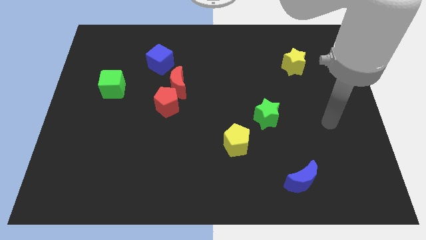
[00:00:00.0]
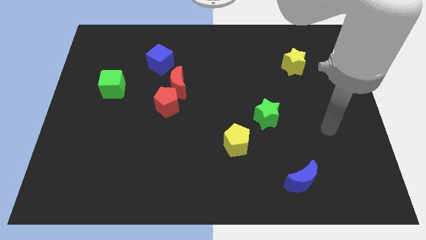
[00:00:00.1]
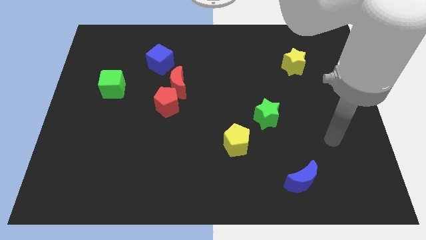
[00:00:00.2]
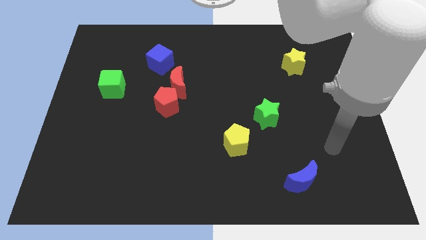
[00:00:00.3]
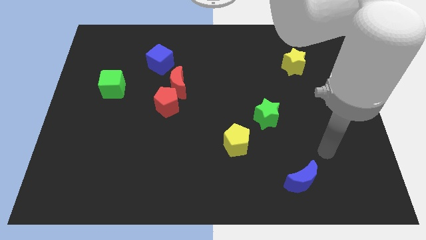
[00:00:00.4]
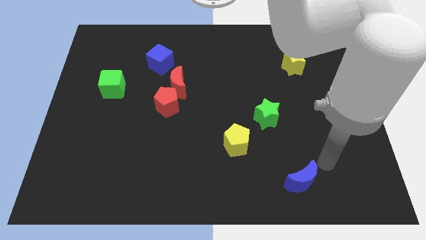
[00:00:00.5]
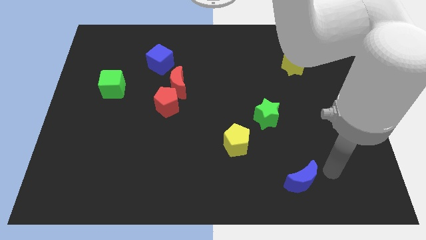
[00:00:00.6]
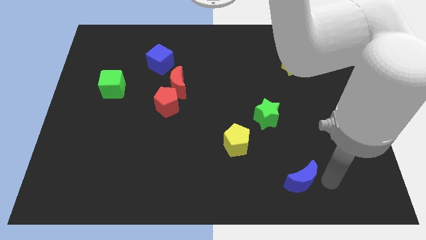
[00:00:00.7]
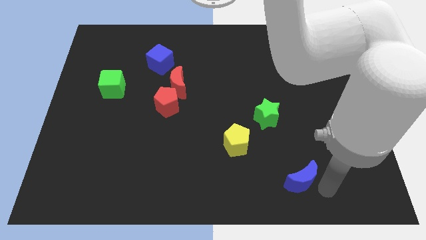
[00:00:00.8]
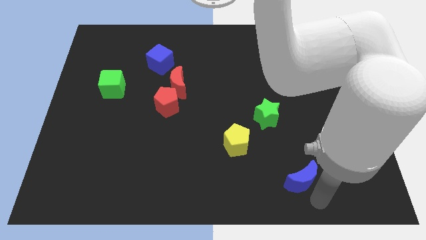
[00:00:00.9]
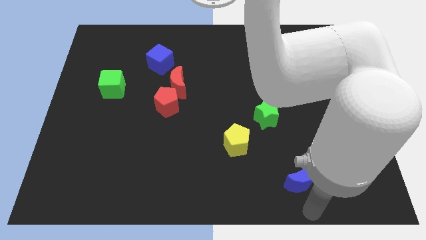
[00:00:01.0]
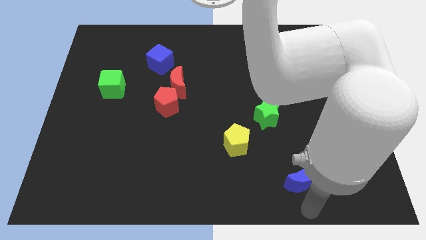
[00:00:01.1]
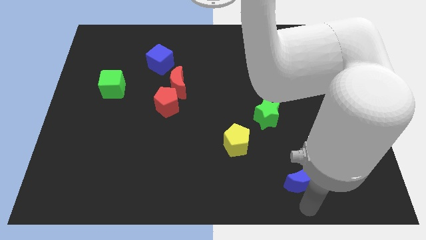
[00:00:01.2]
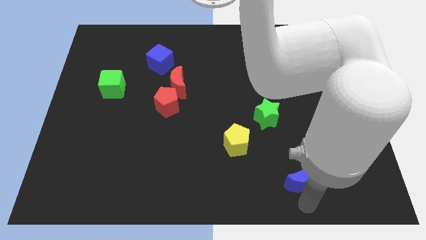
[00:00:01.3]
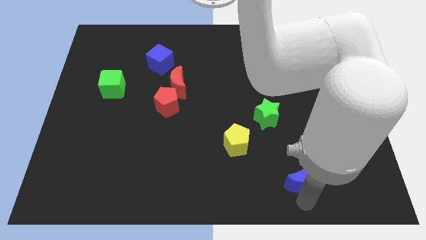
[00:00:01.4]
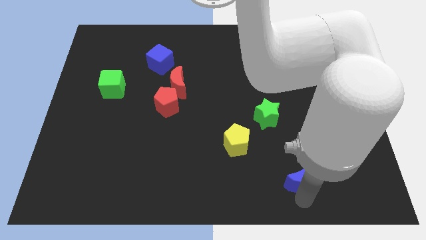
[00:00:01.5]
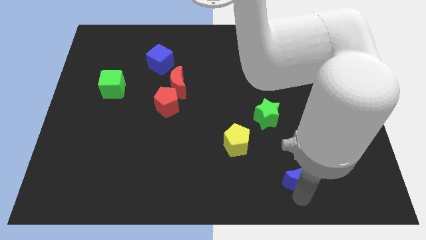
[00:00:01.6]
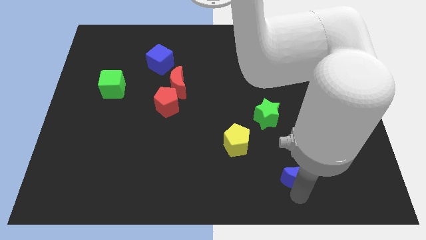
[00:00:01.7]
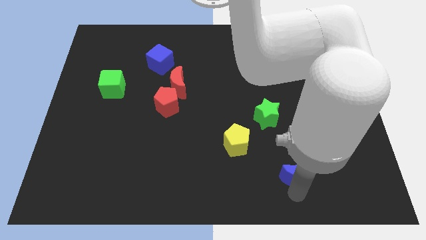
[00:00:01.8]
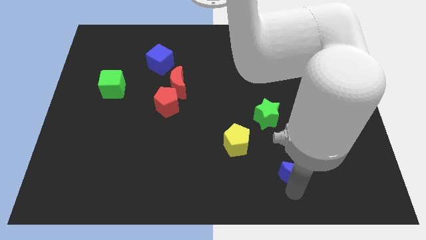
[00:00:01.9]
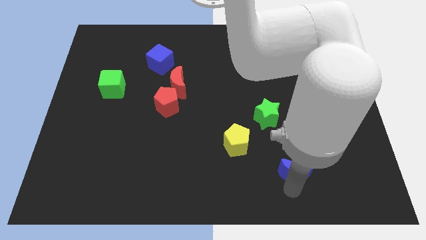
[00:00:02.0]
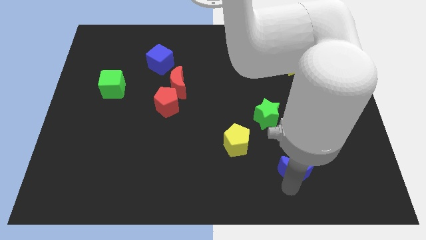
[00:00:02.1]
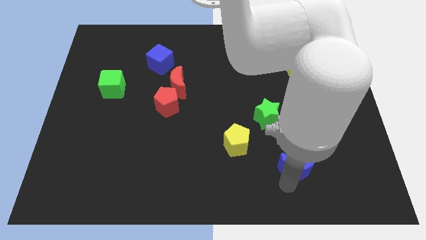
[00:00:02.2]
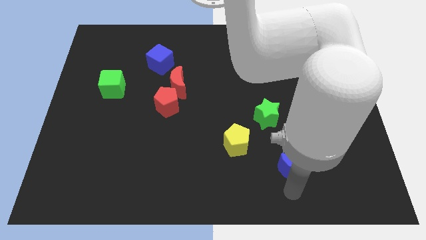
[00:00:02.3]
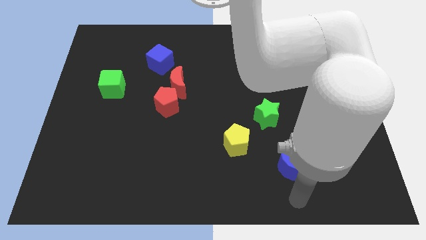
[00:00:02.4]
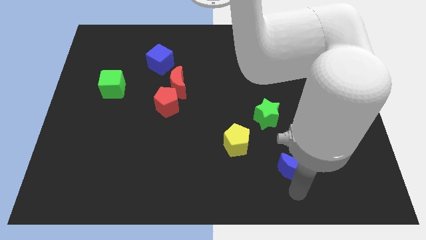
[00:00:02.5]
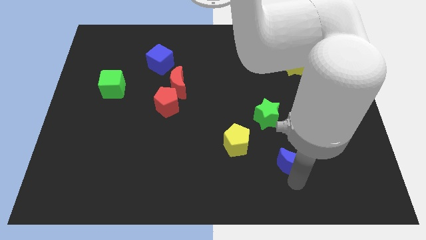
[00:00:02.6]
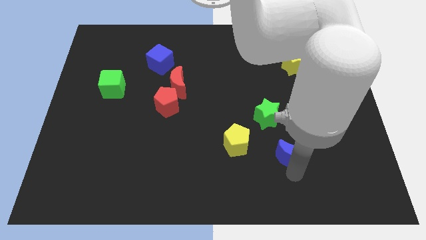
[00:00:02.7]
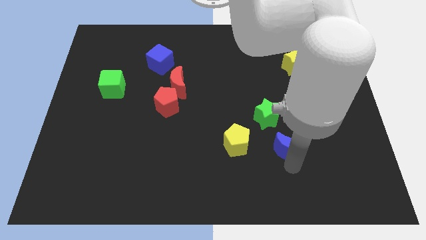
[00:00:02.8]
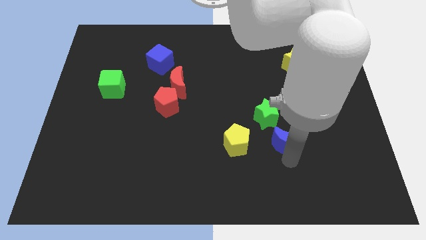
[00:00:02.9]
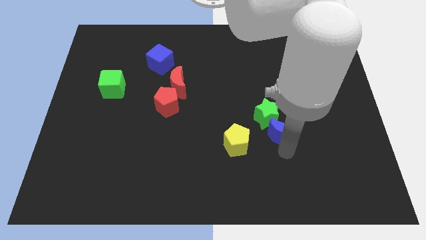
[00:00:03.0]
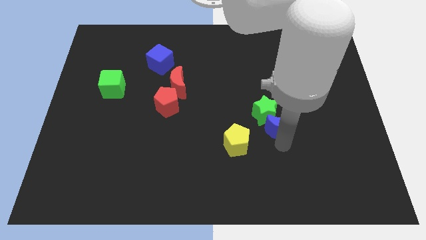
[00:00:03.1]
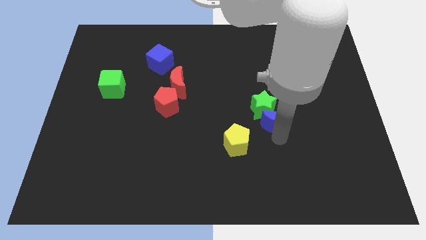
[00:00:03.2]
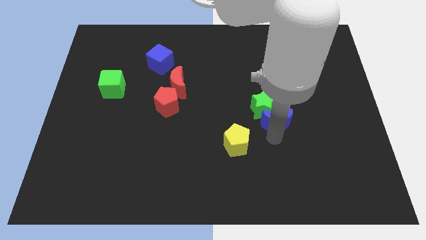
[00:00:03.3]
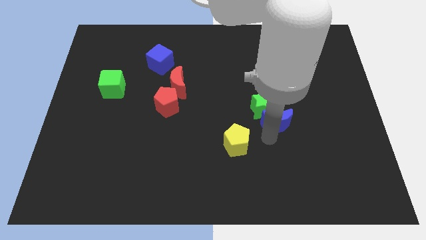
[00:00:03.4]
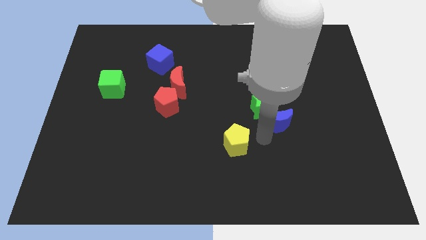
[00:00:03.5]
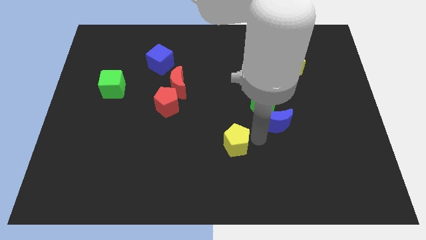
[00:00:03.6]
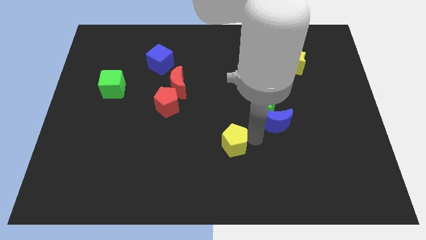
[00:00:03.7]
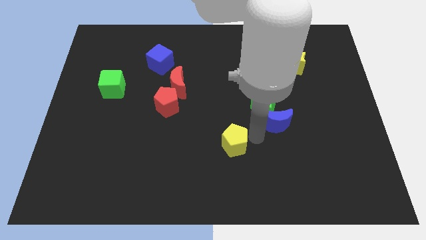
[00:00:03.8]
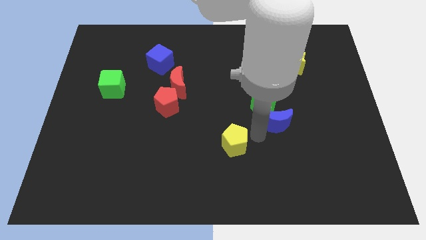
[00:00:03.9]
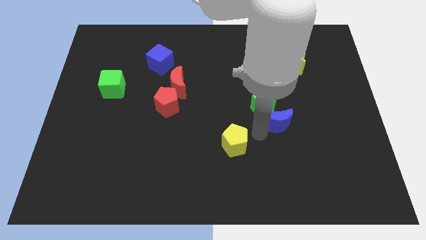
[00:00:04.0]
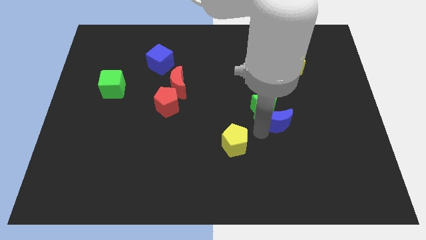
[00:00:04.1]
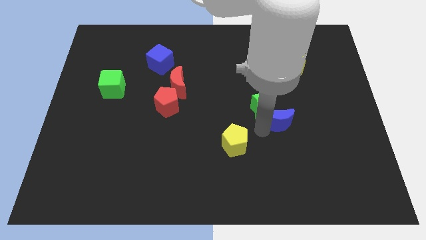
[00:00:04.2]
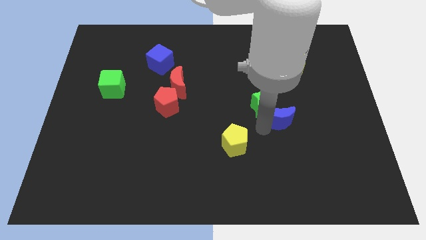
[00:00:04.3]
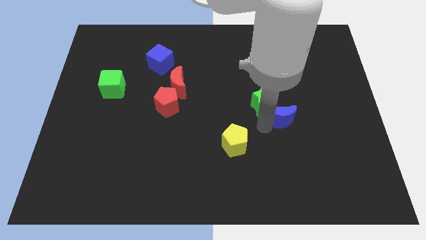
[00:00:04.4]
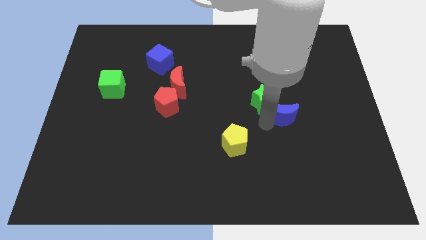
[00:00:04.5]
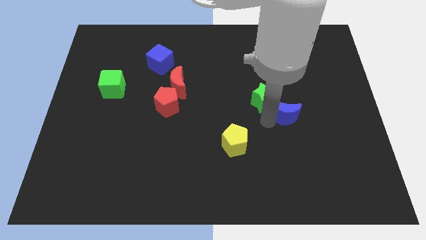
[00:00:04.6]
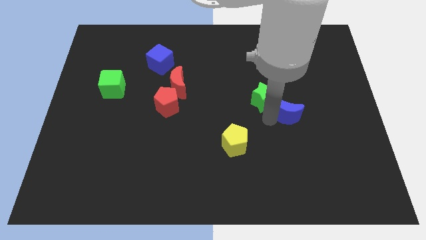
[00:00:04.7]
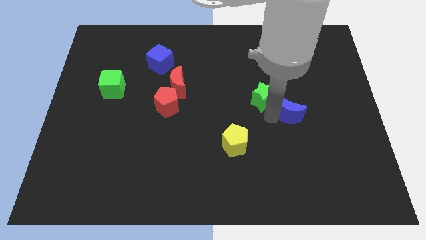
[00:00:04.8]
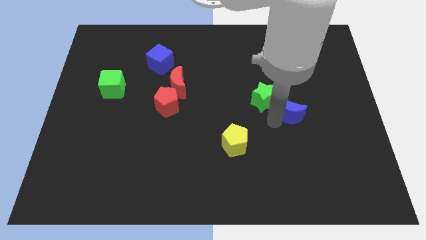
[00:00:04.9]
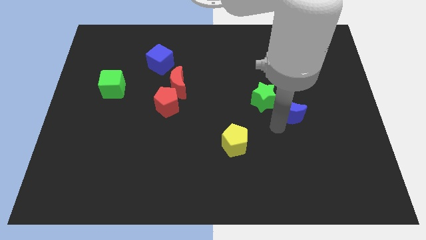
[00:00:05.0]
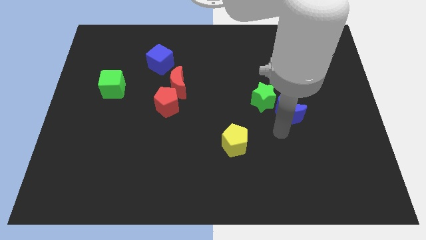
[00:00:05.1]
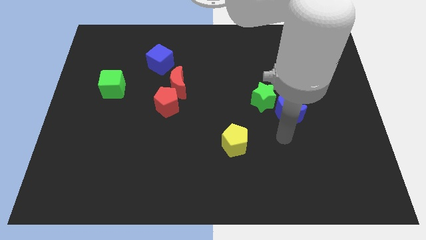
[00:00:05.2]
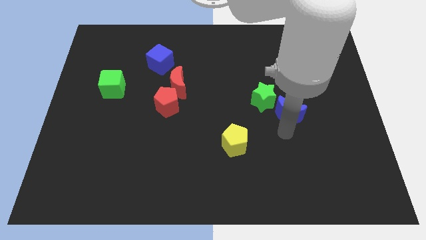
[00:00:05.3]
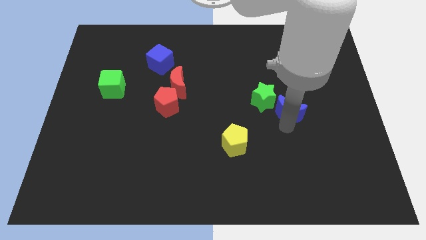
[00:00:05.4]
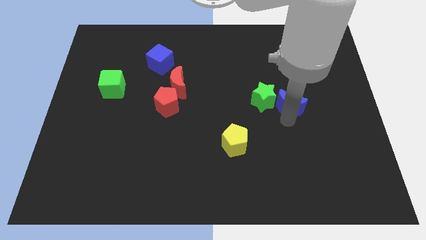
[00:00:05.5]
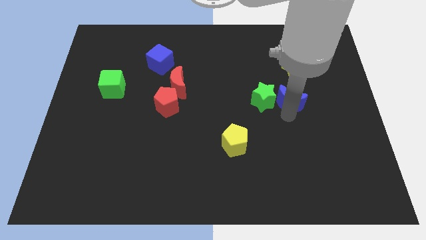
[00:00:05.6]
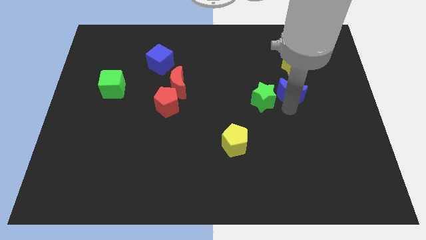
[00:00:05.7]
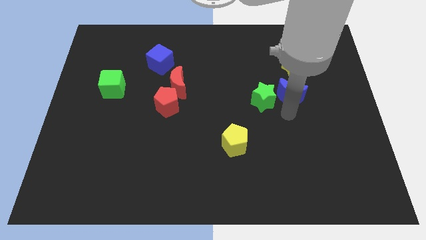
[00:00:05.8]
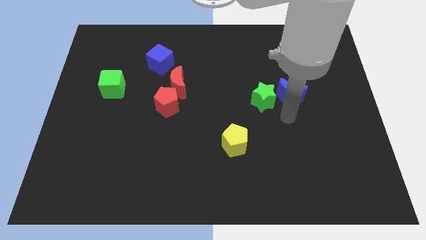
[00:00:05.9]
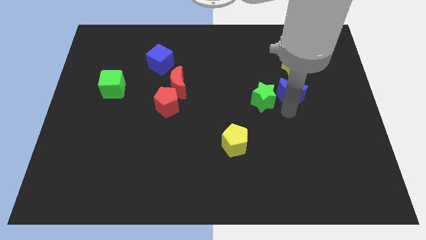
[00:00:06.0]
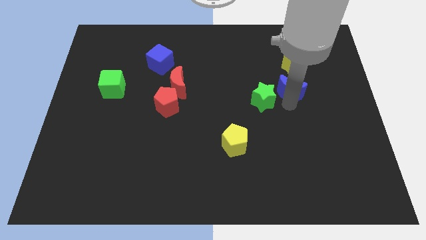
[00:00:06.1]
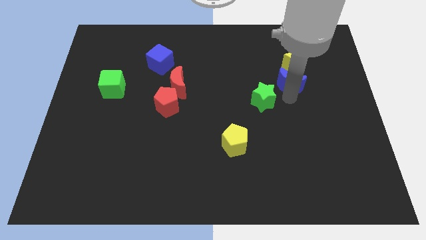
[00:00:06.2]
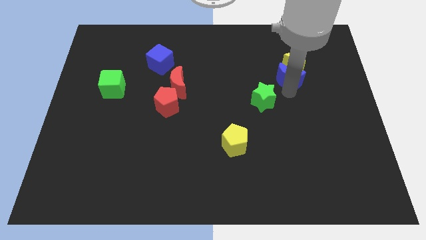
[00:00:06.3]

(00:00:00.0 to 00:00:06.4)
slide the blue moon to the yellow star

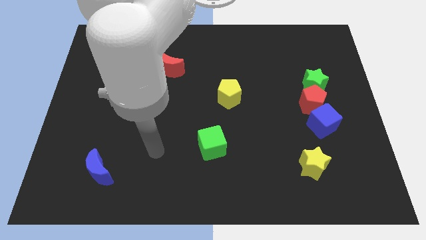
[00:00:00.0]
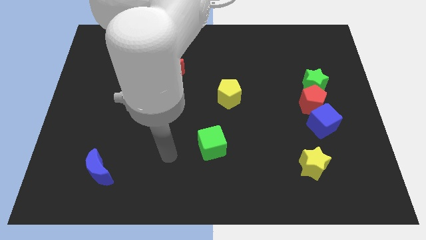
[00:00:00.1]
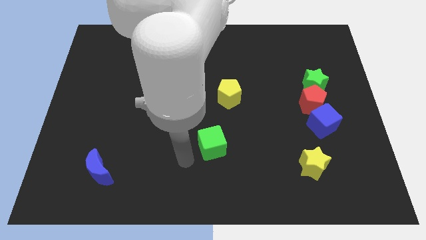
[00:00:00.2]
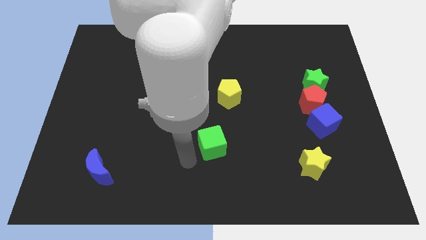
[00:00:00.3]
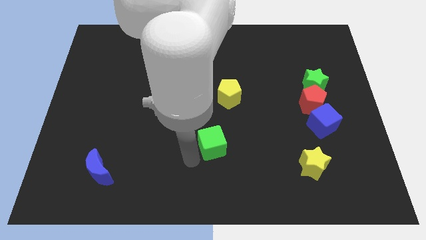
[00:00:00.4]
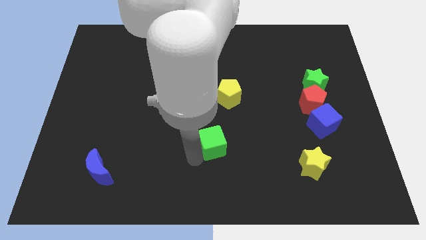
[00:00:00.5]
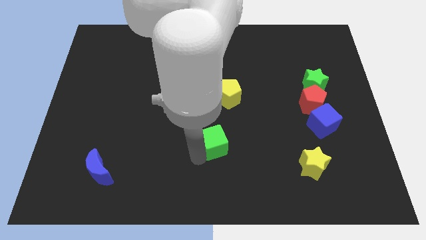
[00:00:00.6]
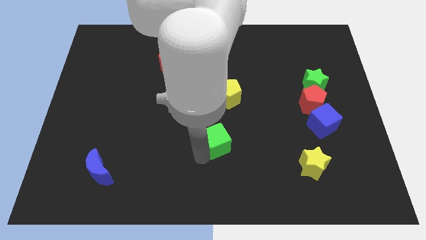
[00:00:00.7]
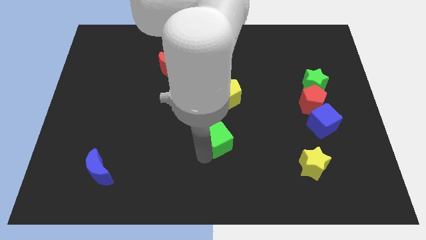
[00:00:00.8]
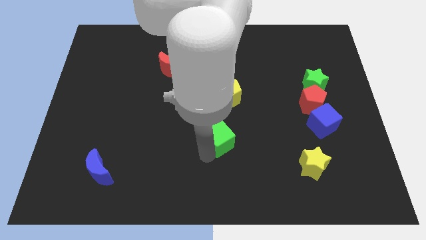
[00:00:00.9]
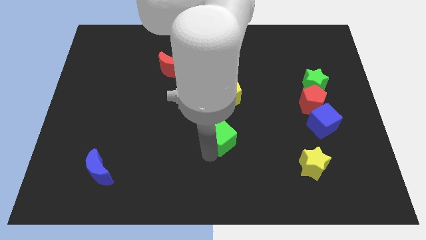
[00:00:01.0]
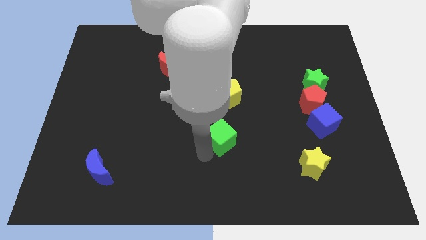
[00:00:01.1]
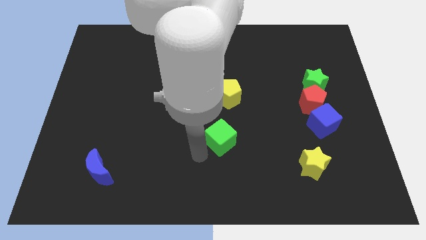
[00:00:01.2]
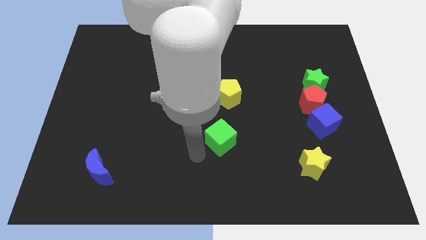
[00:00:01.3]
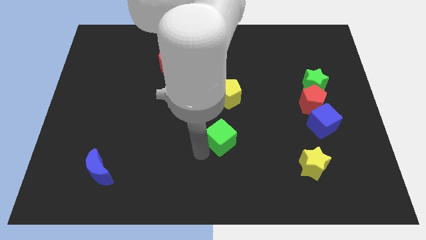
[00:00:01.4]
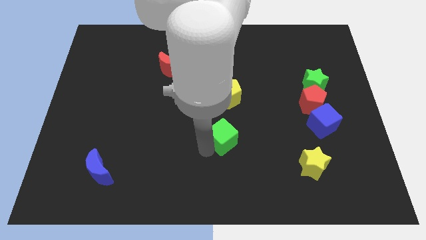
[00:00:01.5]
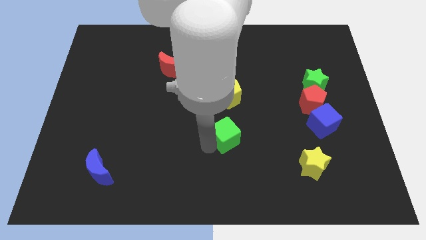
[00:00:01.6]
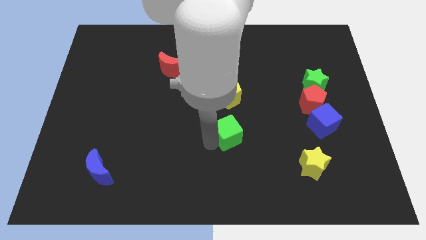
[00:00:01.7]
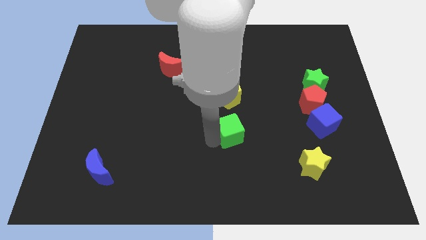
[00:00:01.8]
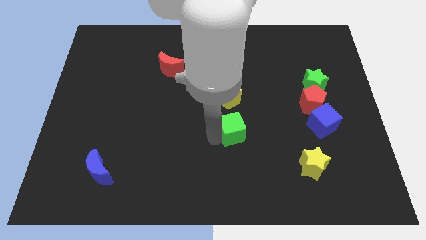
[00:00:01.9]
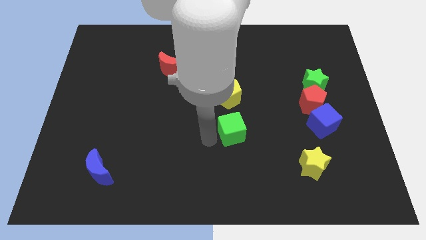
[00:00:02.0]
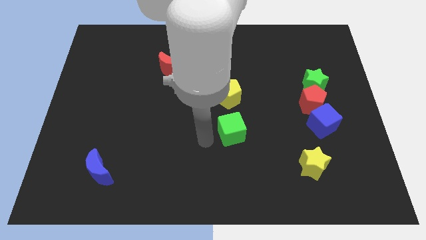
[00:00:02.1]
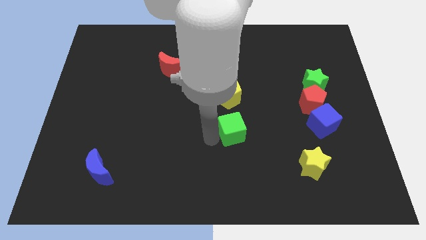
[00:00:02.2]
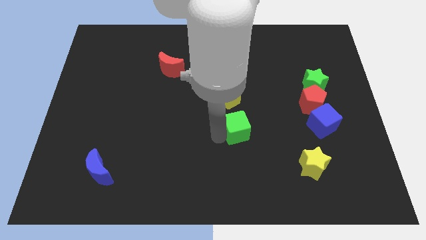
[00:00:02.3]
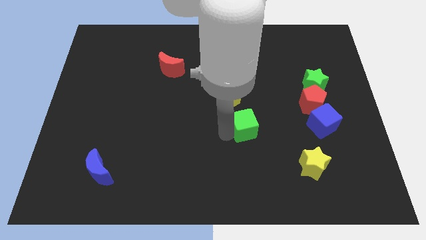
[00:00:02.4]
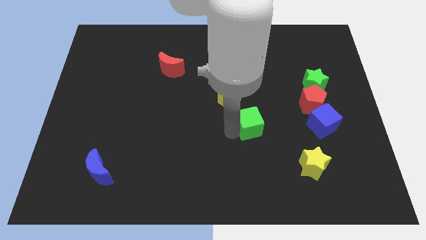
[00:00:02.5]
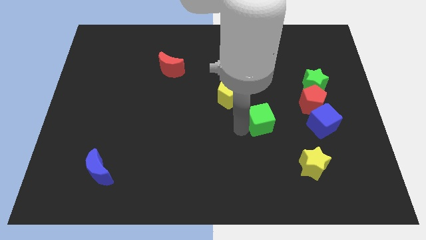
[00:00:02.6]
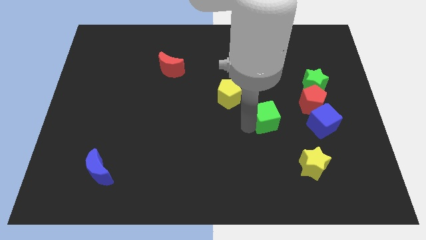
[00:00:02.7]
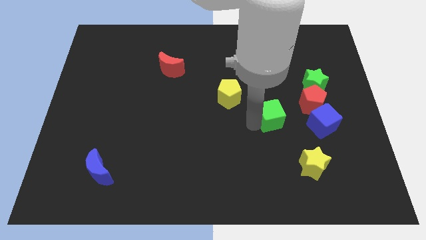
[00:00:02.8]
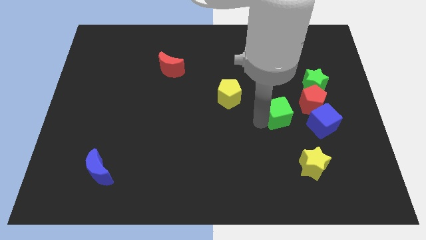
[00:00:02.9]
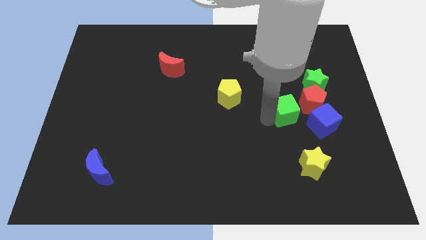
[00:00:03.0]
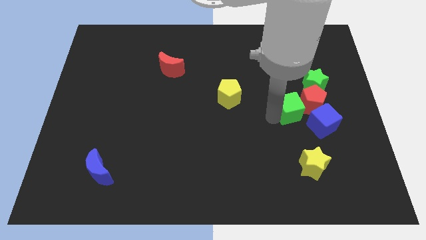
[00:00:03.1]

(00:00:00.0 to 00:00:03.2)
move the green cube close to the red pentagon
